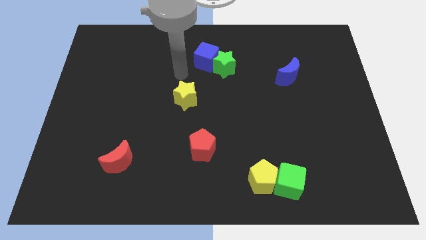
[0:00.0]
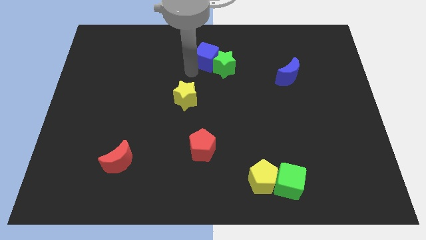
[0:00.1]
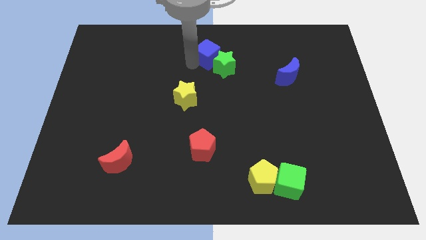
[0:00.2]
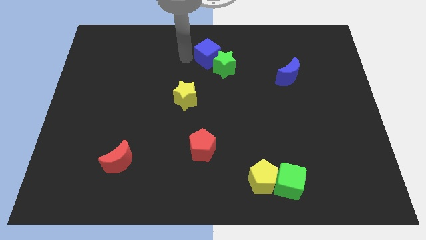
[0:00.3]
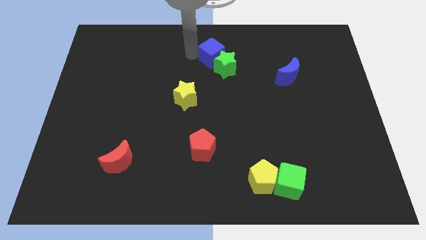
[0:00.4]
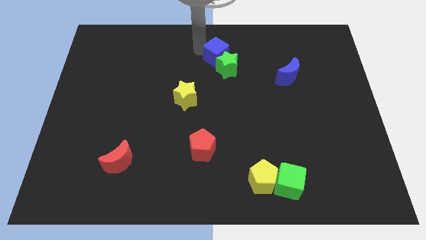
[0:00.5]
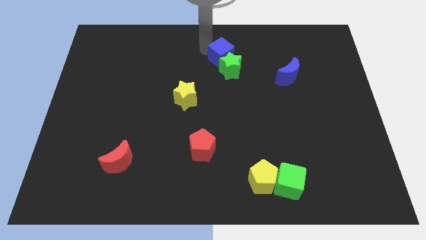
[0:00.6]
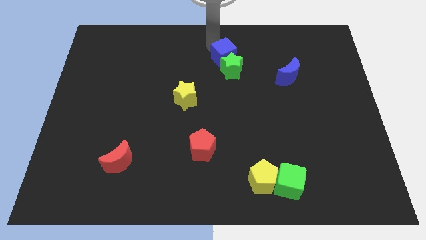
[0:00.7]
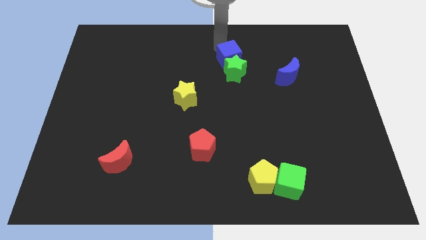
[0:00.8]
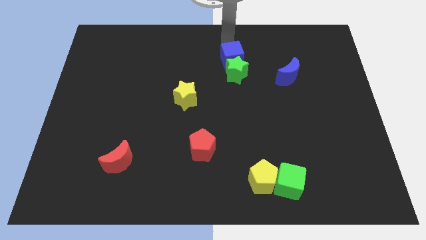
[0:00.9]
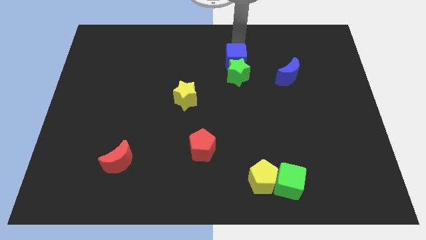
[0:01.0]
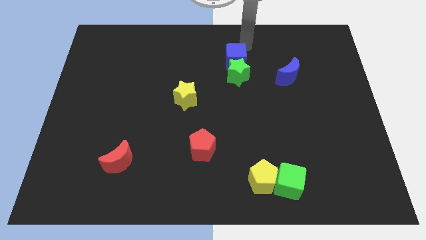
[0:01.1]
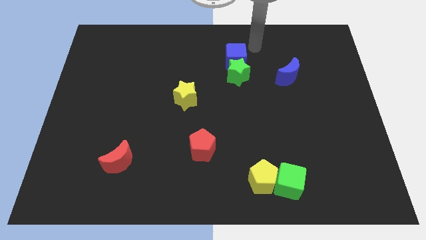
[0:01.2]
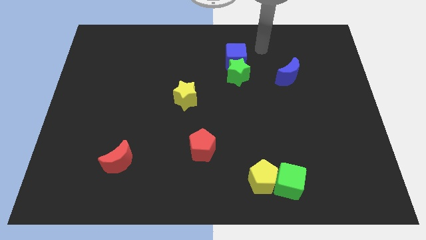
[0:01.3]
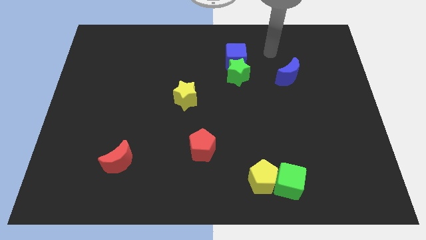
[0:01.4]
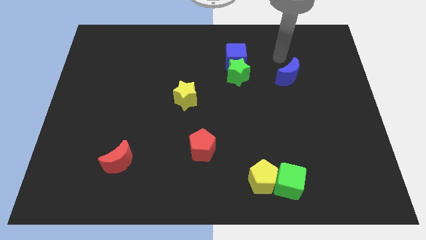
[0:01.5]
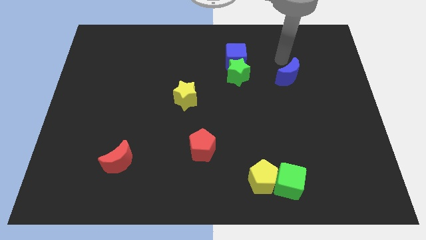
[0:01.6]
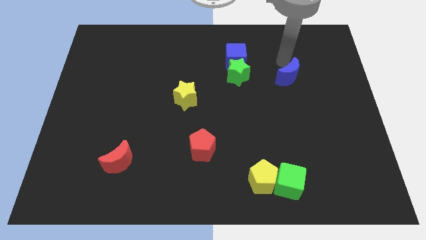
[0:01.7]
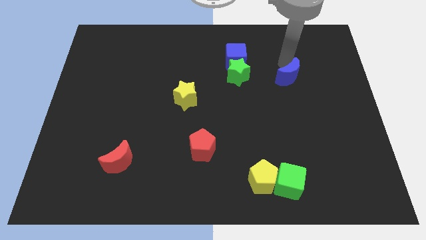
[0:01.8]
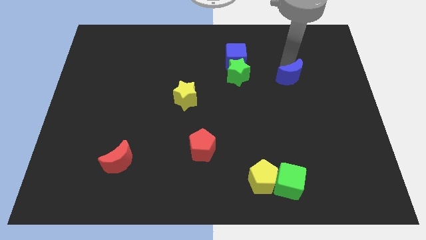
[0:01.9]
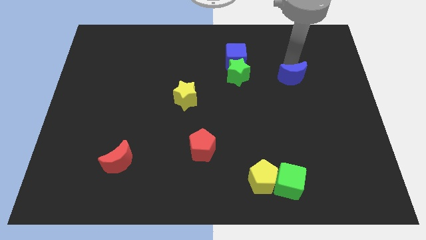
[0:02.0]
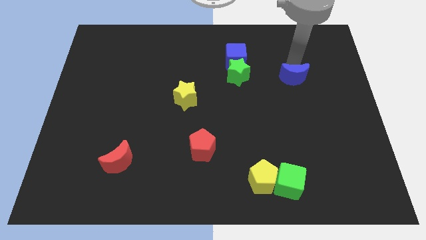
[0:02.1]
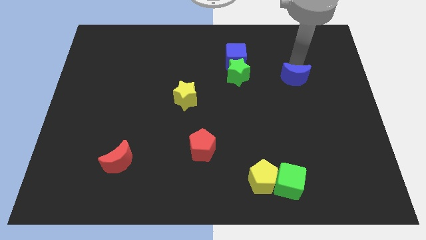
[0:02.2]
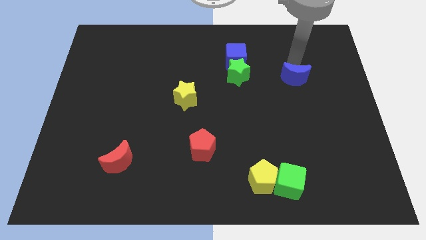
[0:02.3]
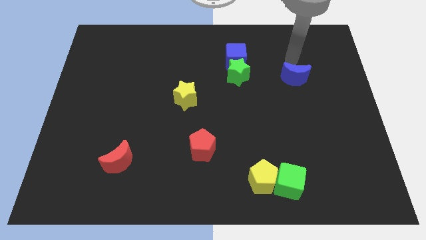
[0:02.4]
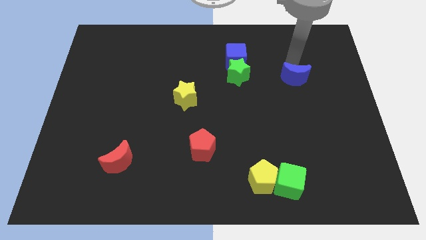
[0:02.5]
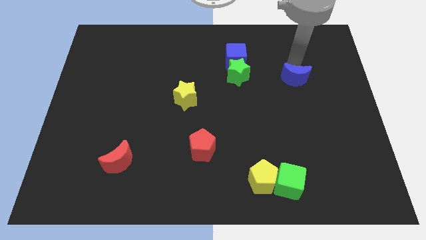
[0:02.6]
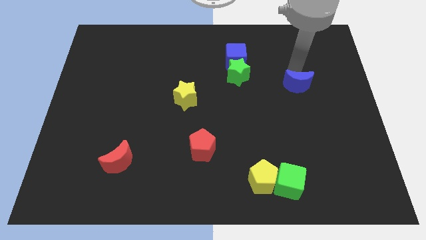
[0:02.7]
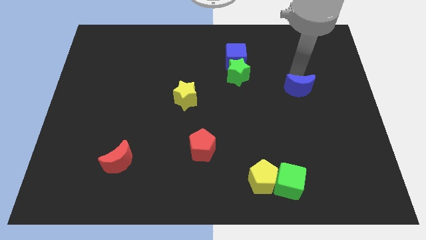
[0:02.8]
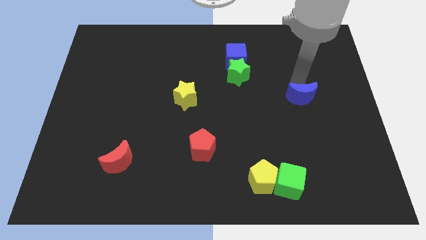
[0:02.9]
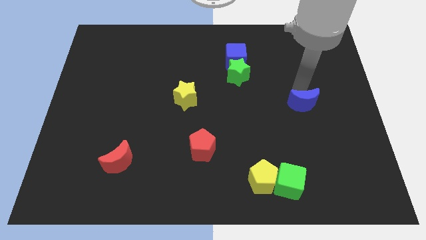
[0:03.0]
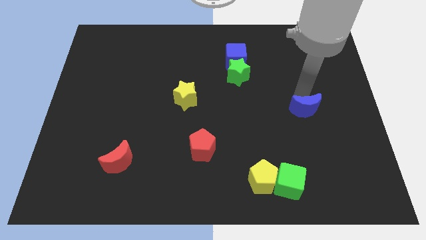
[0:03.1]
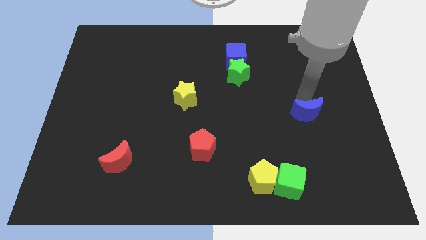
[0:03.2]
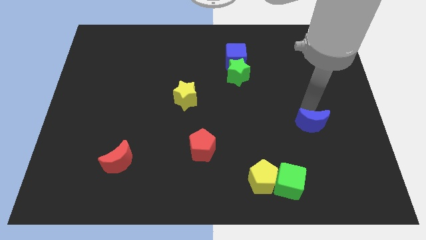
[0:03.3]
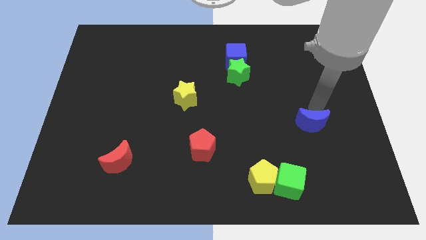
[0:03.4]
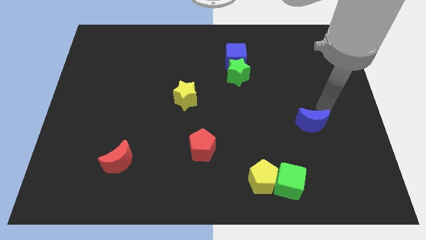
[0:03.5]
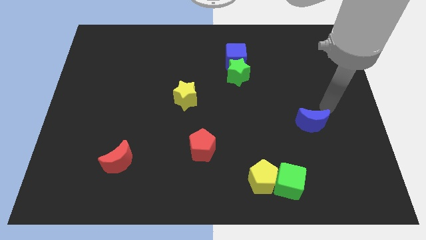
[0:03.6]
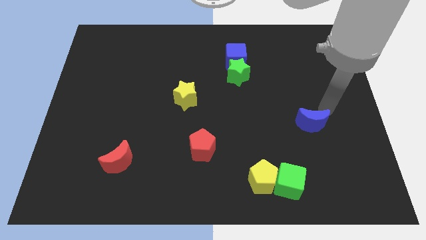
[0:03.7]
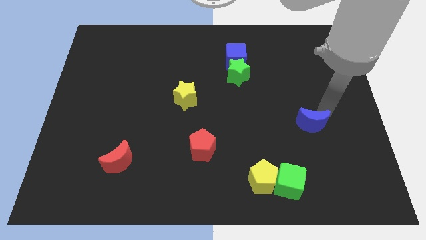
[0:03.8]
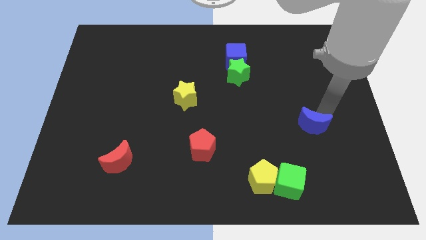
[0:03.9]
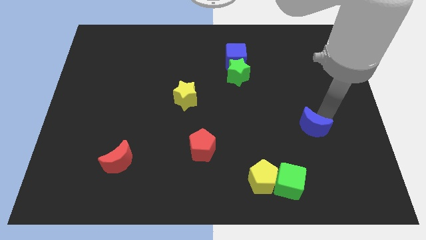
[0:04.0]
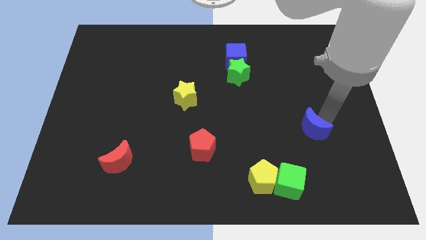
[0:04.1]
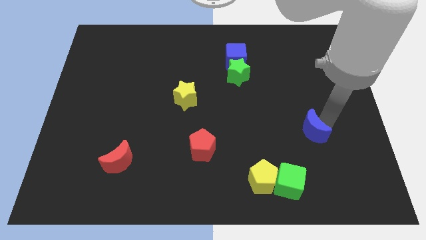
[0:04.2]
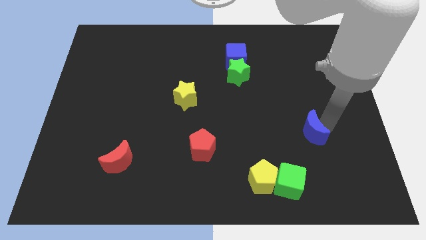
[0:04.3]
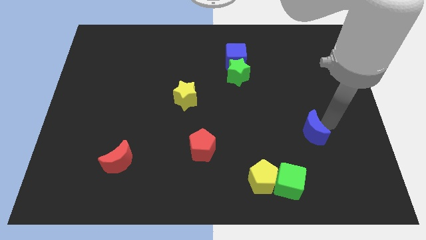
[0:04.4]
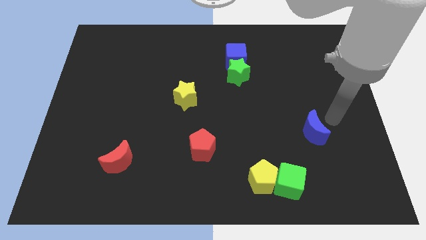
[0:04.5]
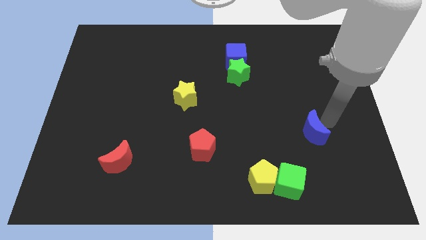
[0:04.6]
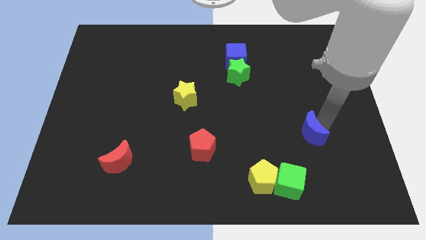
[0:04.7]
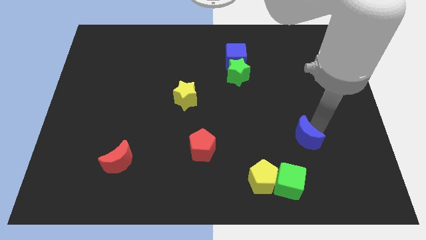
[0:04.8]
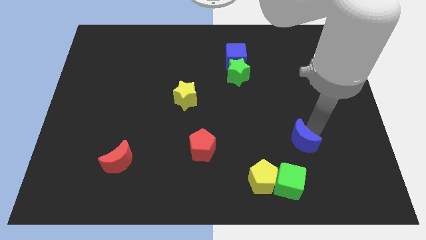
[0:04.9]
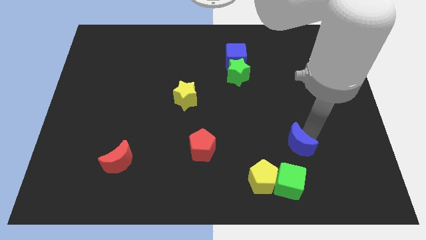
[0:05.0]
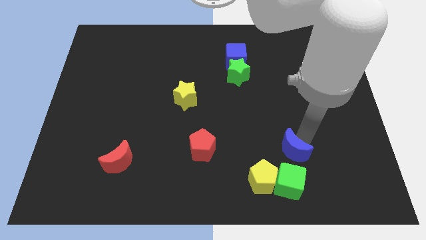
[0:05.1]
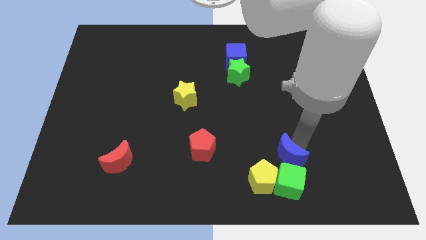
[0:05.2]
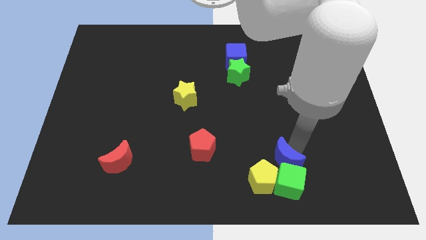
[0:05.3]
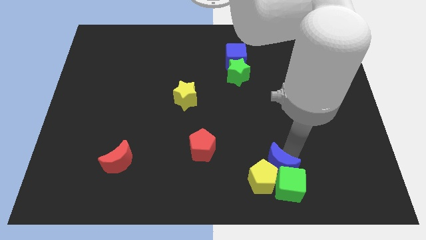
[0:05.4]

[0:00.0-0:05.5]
put the blue moon to the yellow pentagon

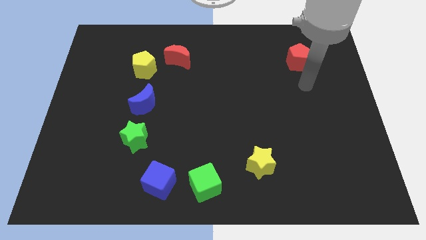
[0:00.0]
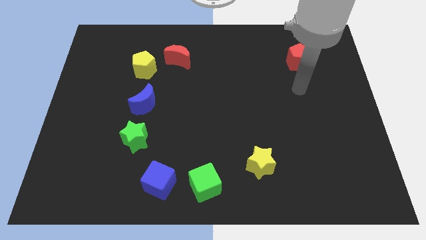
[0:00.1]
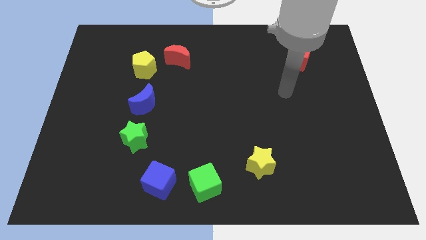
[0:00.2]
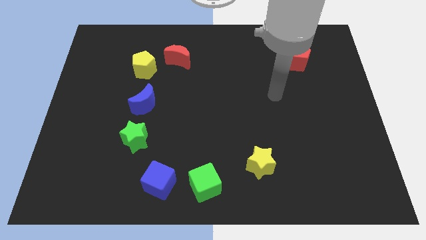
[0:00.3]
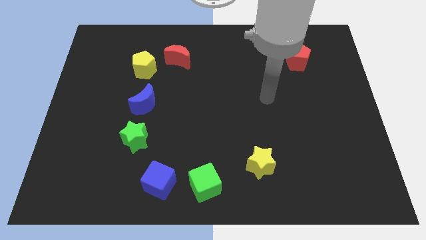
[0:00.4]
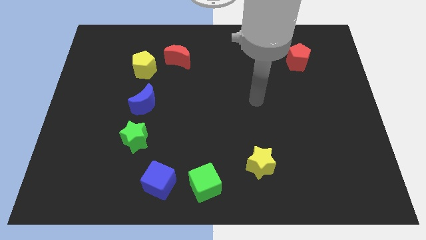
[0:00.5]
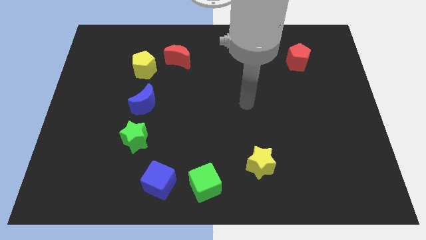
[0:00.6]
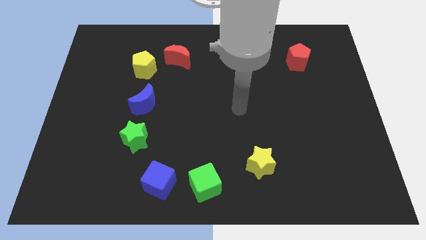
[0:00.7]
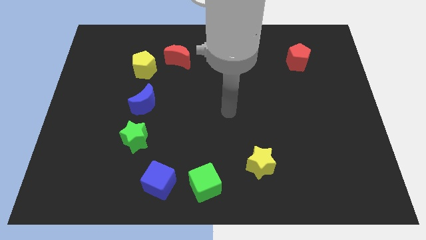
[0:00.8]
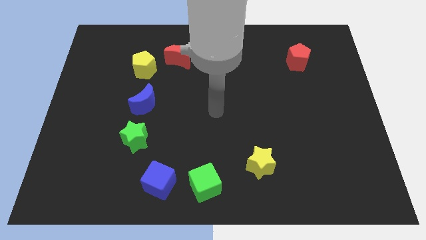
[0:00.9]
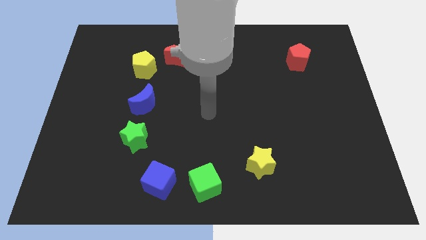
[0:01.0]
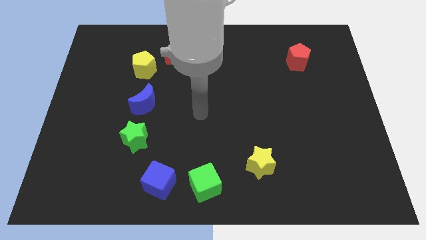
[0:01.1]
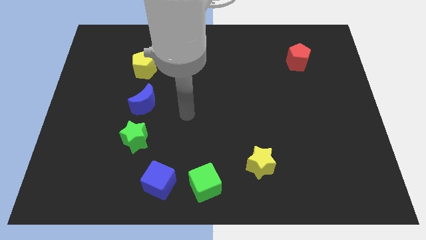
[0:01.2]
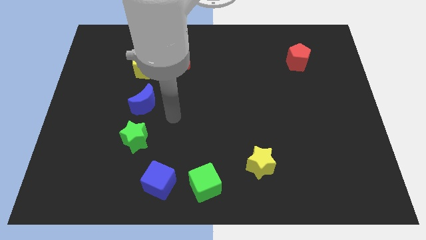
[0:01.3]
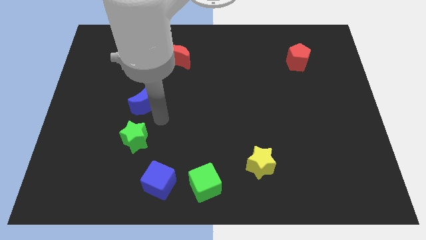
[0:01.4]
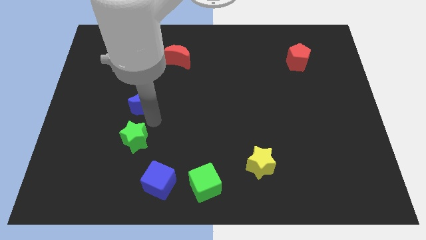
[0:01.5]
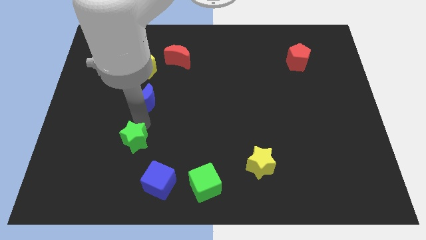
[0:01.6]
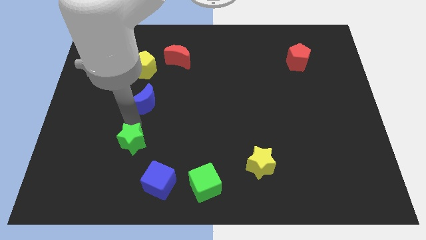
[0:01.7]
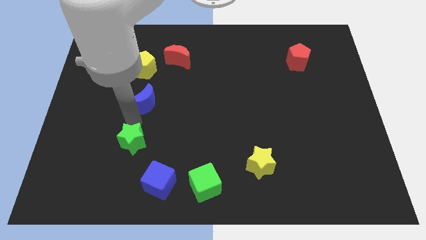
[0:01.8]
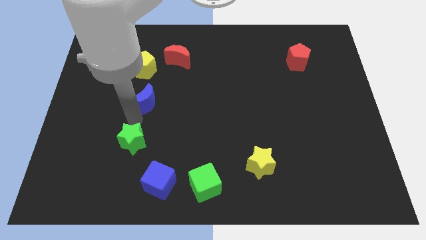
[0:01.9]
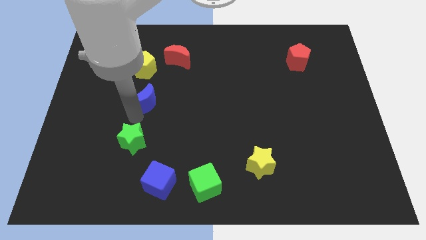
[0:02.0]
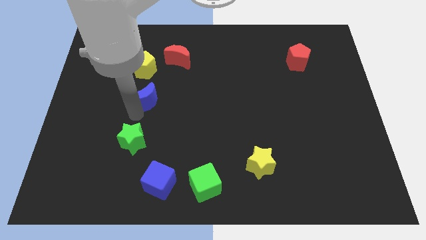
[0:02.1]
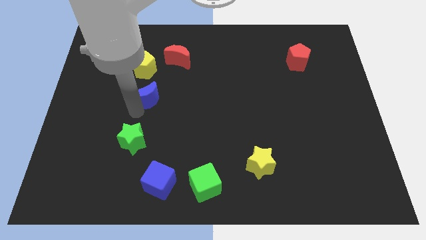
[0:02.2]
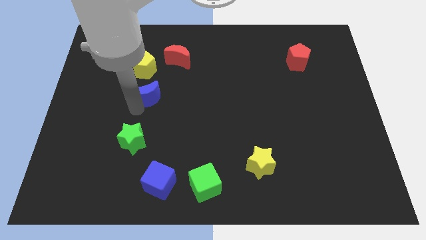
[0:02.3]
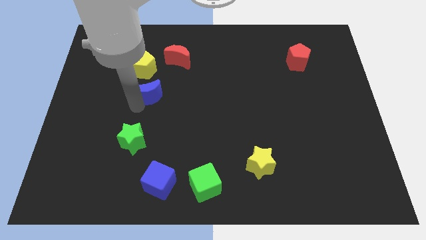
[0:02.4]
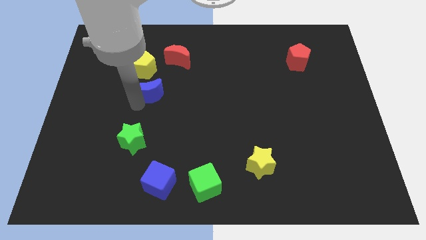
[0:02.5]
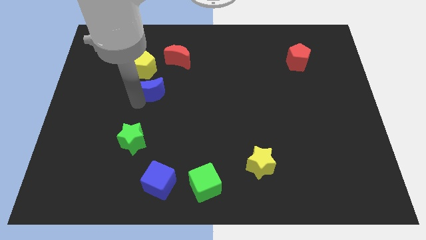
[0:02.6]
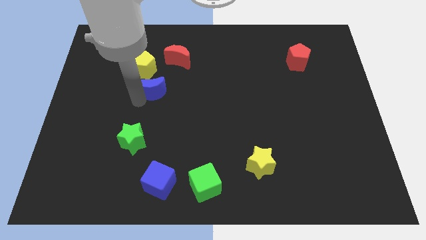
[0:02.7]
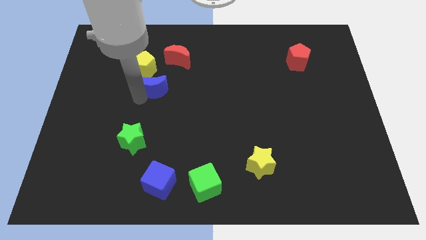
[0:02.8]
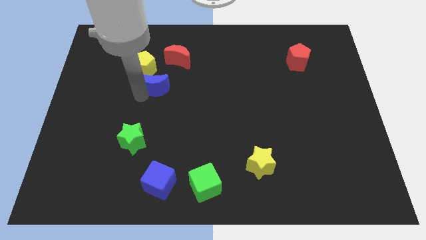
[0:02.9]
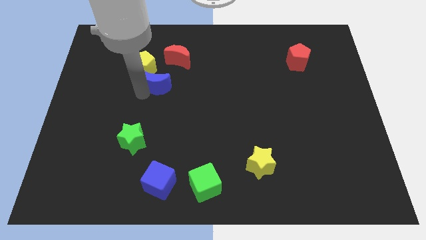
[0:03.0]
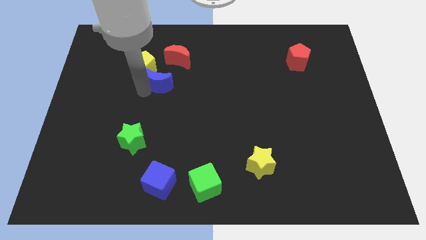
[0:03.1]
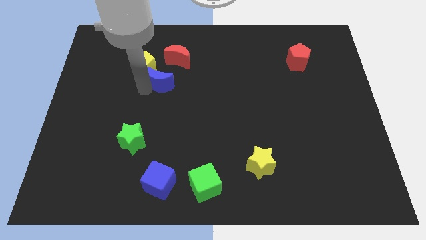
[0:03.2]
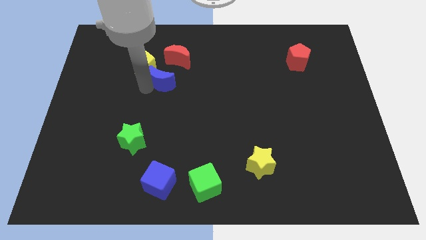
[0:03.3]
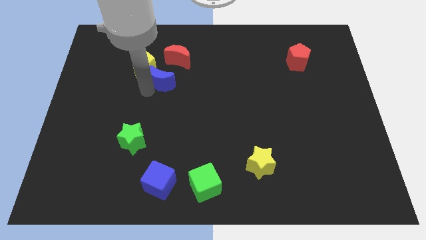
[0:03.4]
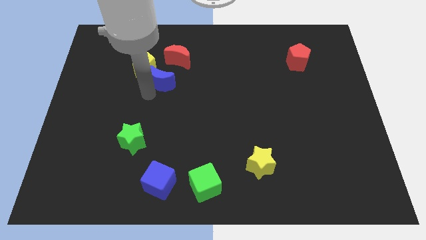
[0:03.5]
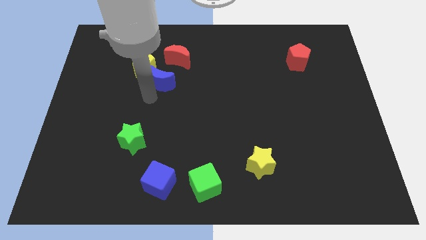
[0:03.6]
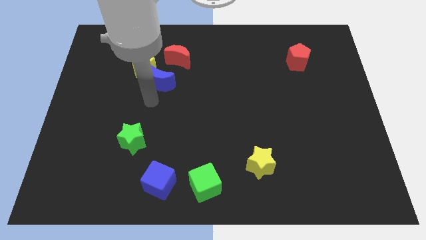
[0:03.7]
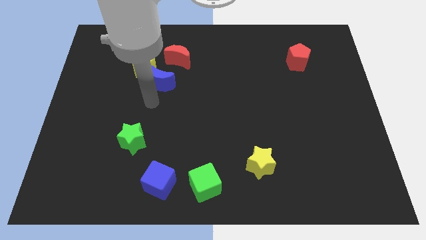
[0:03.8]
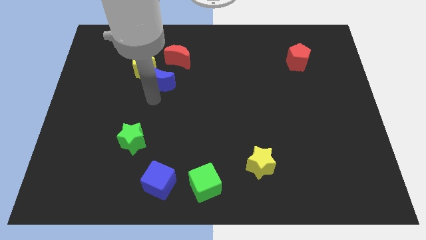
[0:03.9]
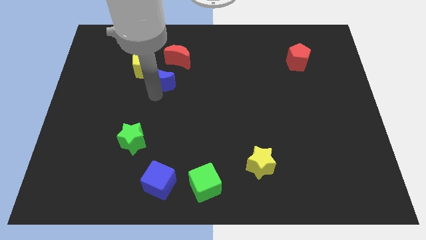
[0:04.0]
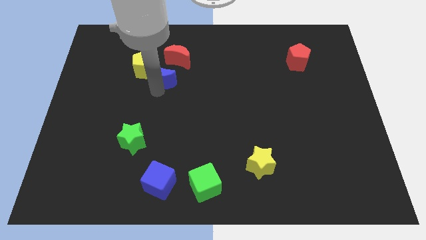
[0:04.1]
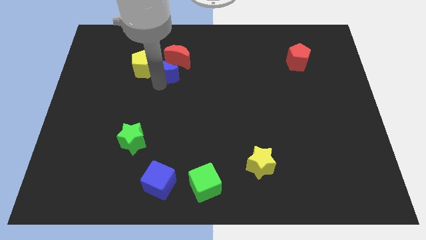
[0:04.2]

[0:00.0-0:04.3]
put the blue moon towards the red moon
